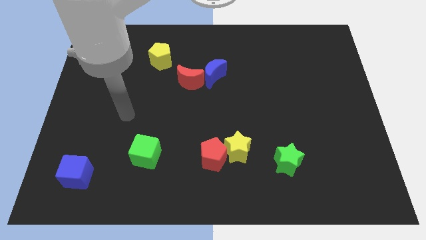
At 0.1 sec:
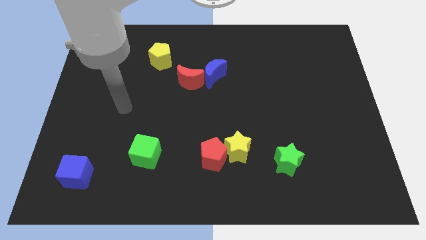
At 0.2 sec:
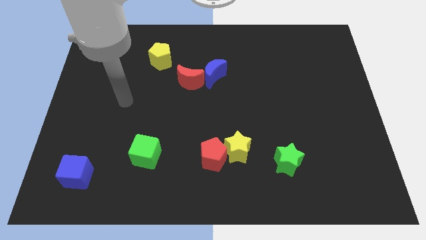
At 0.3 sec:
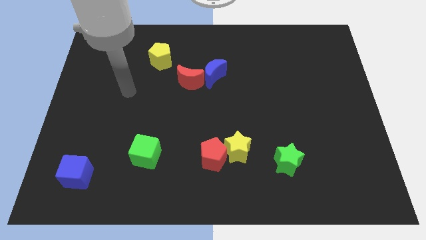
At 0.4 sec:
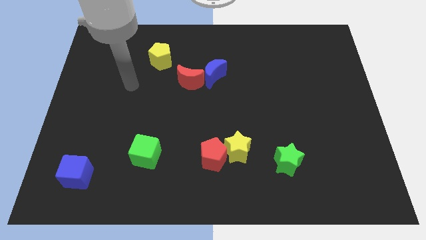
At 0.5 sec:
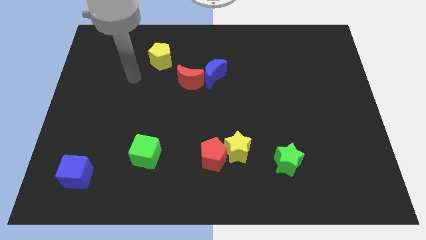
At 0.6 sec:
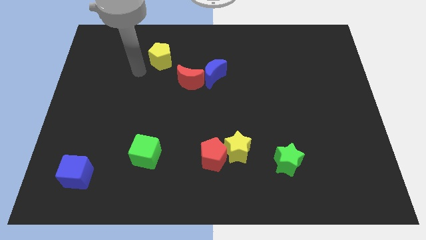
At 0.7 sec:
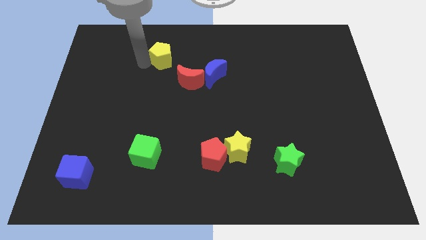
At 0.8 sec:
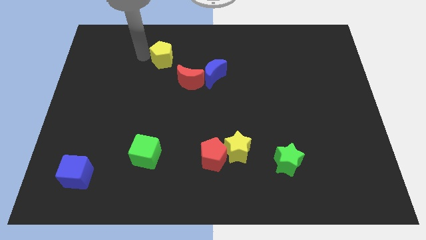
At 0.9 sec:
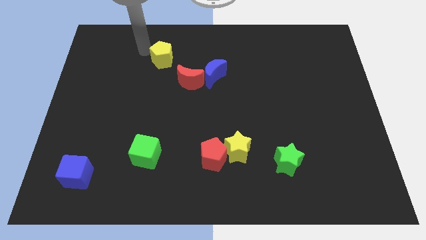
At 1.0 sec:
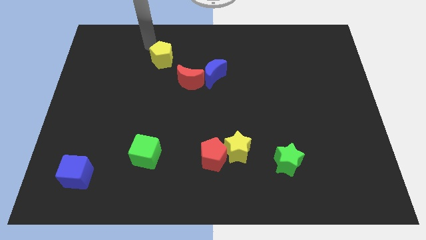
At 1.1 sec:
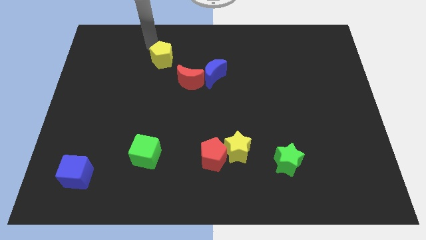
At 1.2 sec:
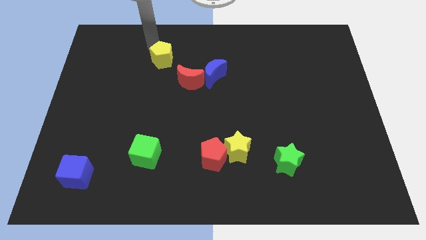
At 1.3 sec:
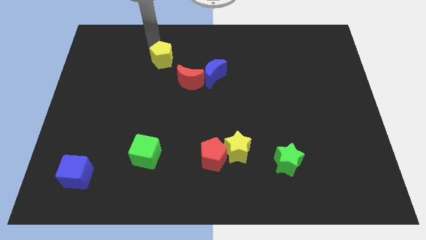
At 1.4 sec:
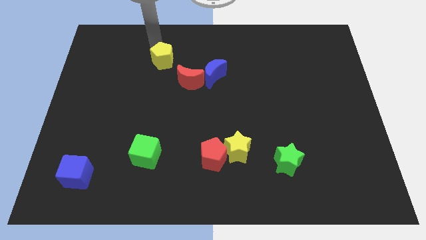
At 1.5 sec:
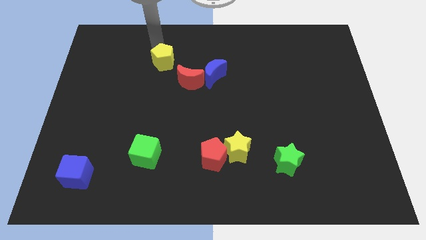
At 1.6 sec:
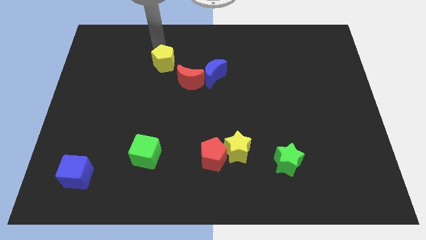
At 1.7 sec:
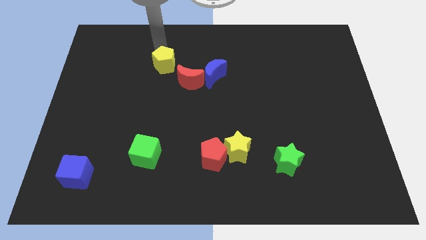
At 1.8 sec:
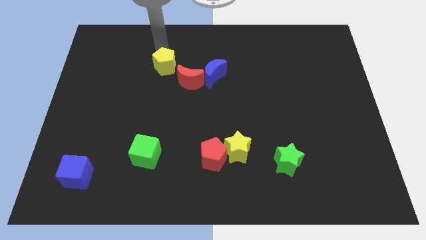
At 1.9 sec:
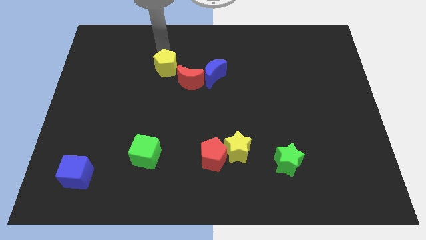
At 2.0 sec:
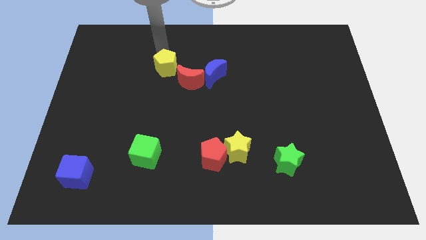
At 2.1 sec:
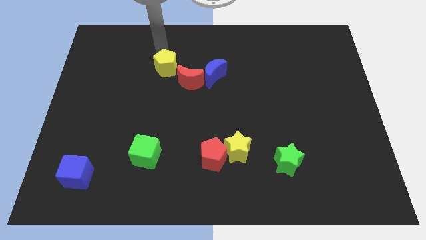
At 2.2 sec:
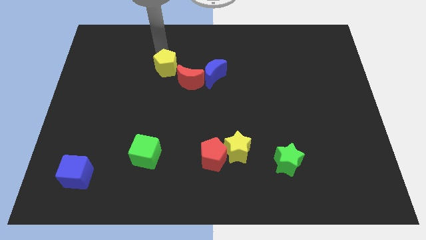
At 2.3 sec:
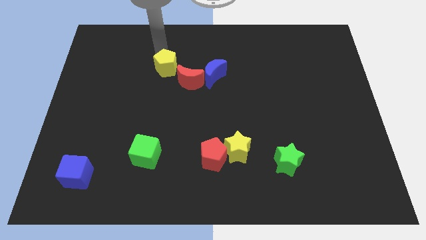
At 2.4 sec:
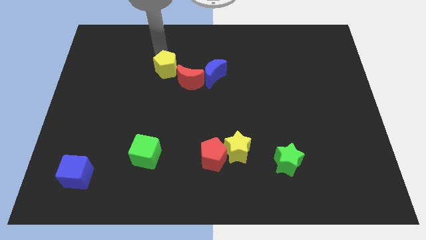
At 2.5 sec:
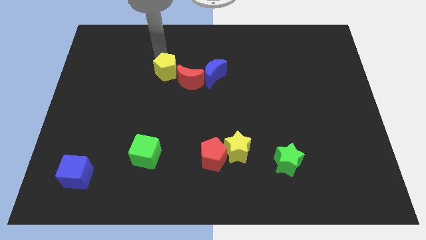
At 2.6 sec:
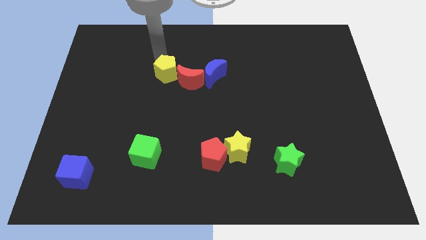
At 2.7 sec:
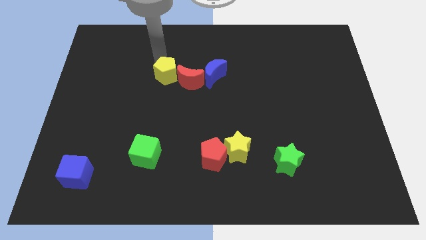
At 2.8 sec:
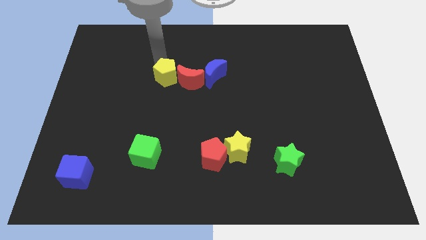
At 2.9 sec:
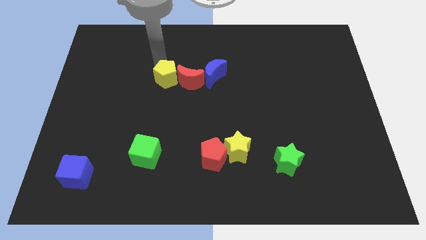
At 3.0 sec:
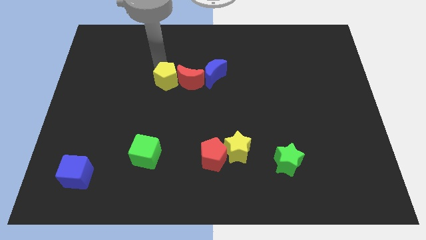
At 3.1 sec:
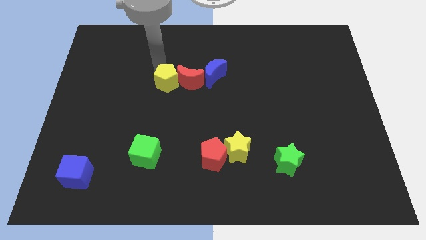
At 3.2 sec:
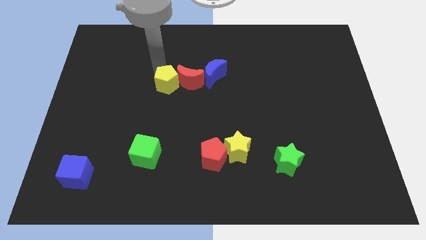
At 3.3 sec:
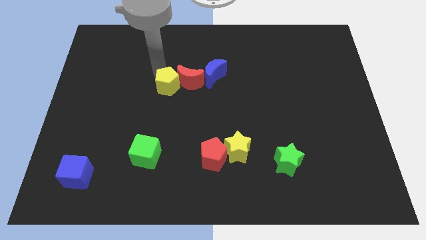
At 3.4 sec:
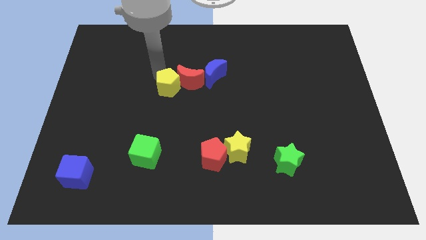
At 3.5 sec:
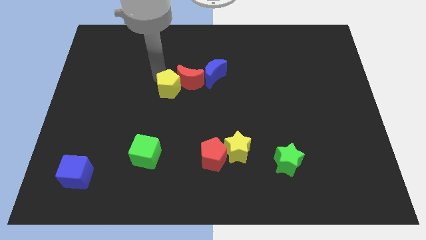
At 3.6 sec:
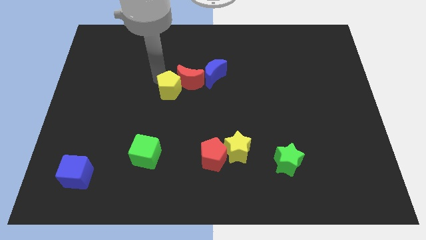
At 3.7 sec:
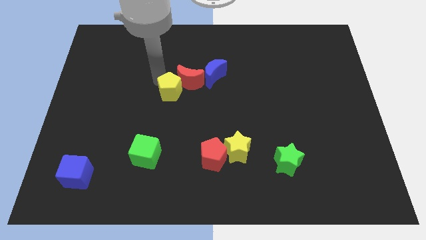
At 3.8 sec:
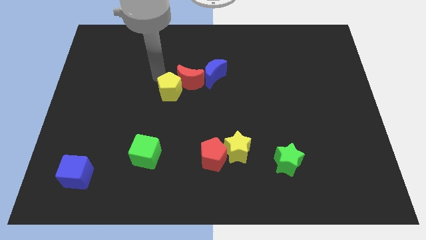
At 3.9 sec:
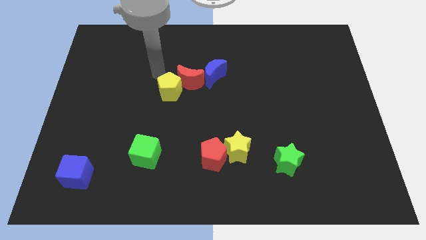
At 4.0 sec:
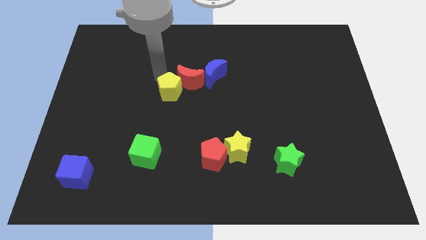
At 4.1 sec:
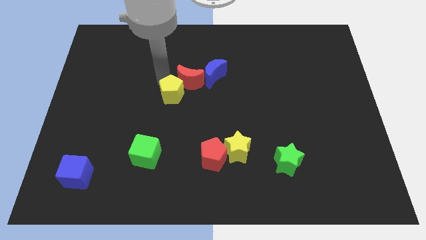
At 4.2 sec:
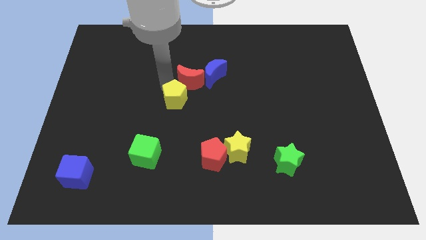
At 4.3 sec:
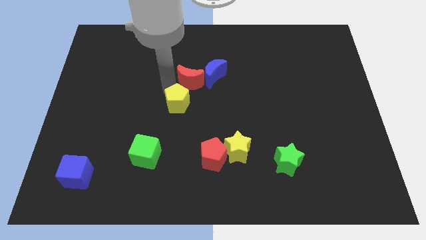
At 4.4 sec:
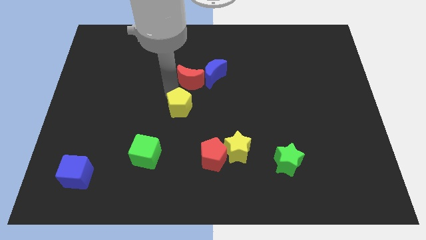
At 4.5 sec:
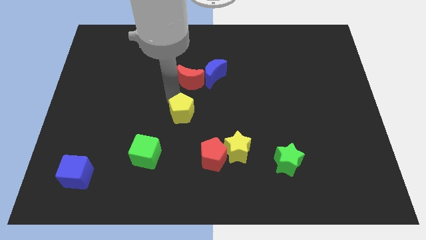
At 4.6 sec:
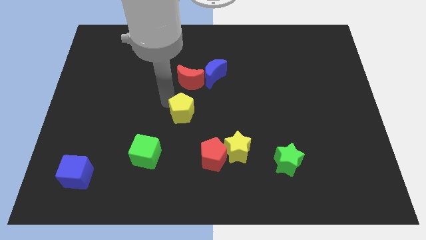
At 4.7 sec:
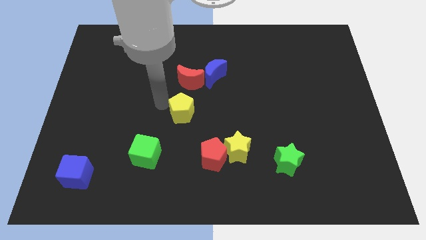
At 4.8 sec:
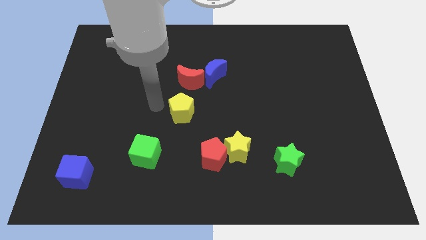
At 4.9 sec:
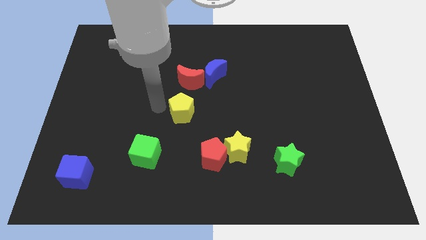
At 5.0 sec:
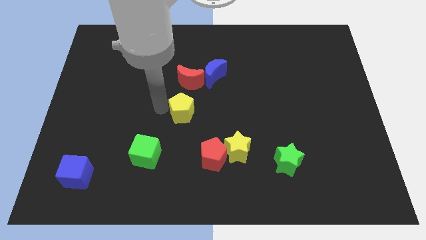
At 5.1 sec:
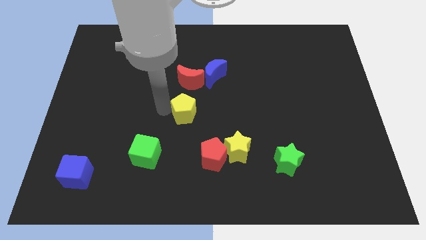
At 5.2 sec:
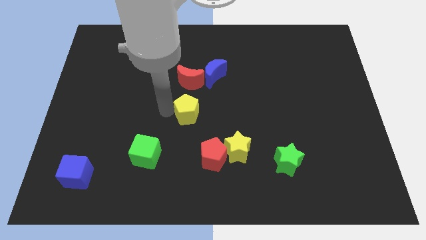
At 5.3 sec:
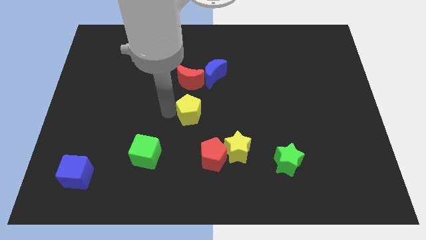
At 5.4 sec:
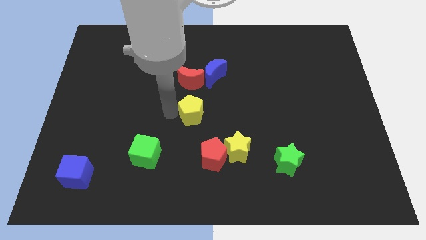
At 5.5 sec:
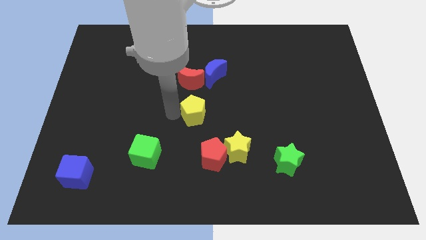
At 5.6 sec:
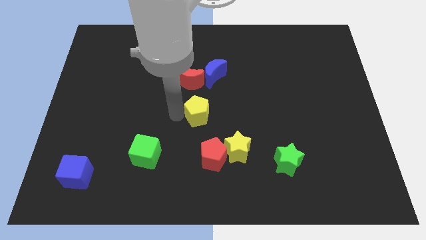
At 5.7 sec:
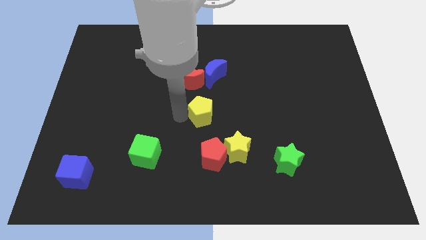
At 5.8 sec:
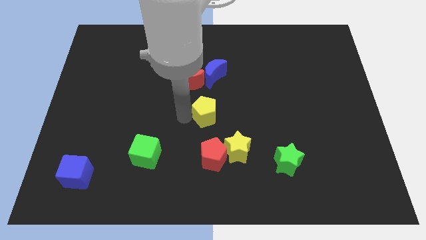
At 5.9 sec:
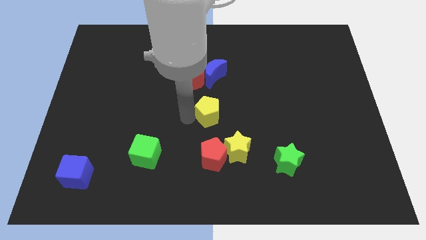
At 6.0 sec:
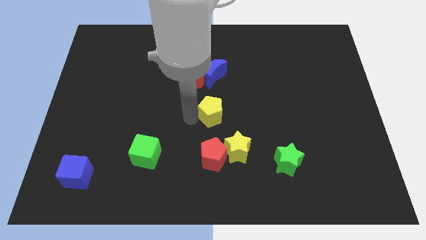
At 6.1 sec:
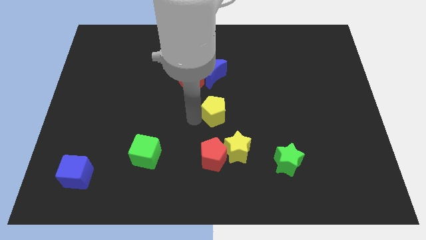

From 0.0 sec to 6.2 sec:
put the yellow pentagon to the top side of the yellow star

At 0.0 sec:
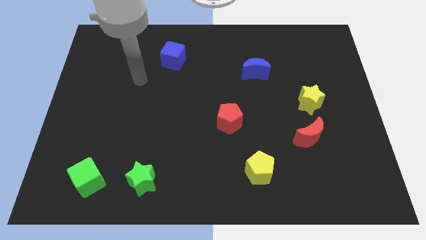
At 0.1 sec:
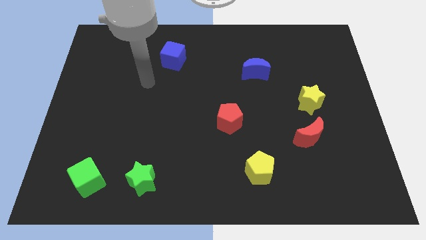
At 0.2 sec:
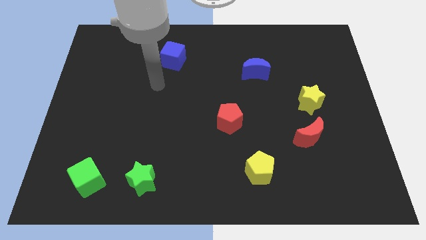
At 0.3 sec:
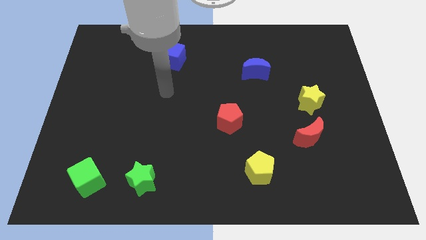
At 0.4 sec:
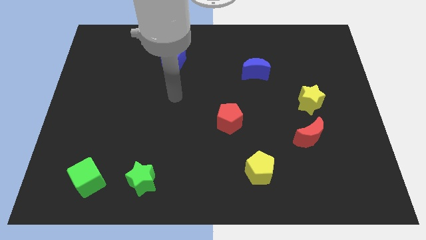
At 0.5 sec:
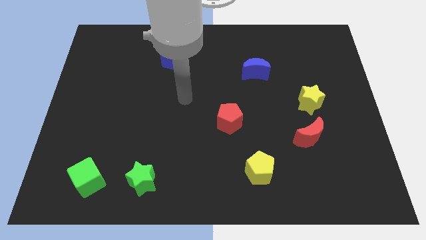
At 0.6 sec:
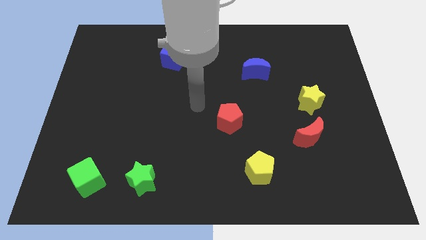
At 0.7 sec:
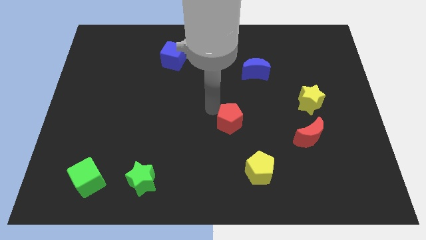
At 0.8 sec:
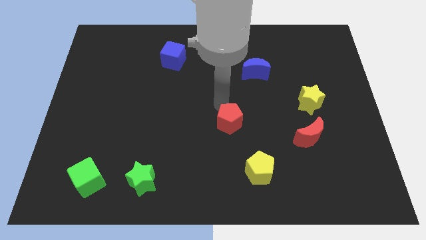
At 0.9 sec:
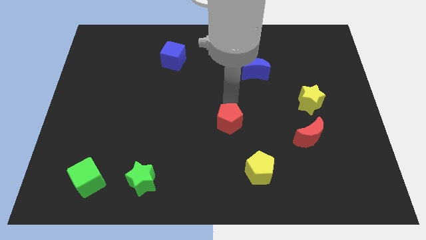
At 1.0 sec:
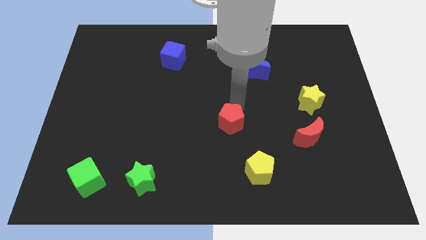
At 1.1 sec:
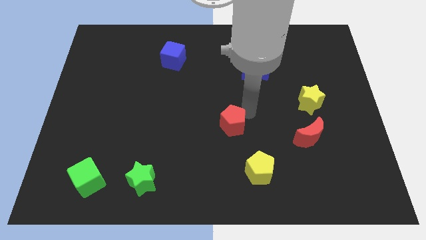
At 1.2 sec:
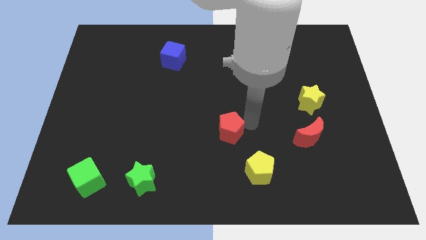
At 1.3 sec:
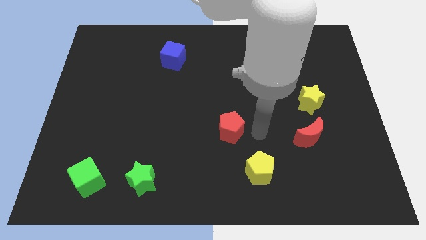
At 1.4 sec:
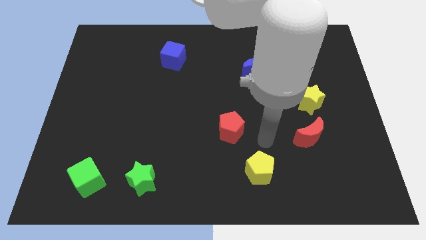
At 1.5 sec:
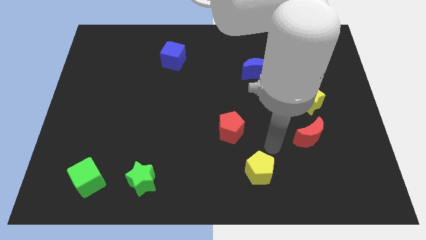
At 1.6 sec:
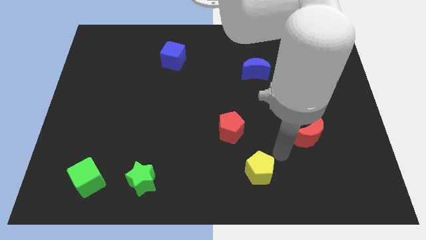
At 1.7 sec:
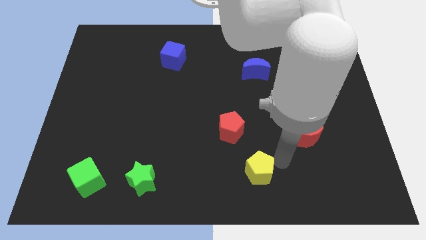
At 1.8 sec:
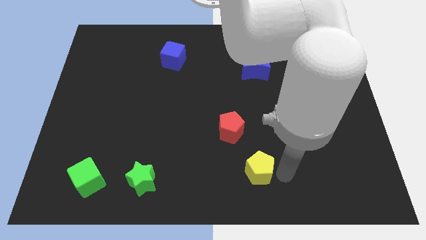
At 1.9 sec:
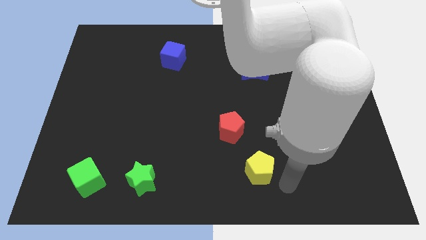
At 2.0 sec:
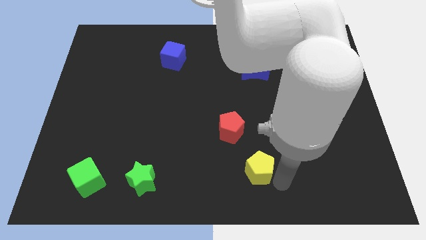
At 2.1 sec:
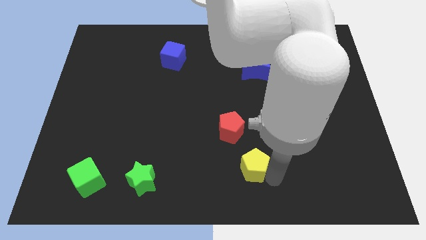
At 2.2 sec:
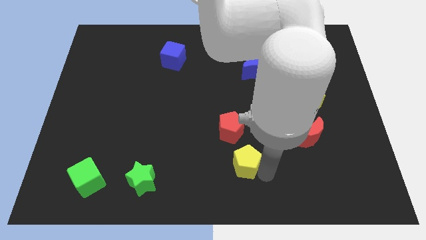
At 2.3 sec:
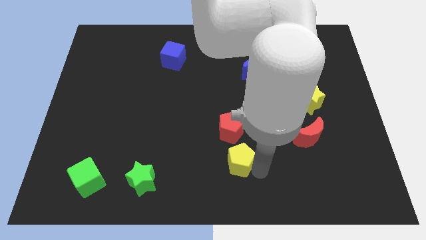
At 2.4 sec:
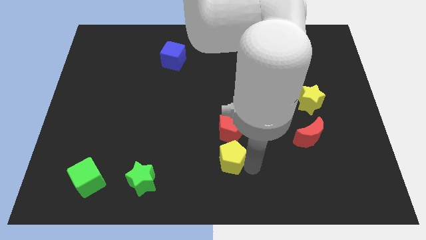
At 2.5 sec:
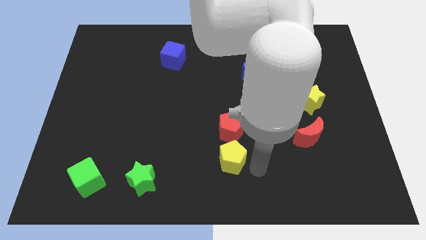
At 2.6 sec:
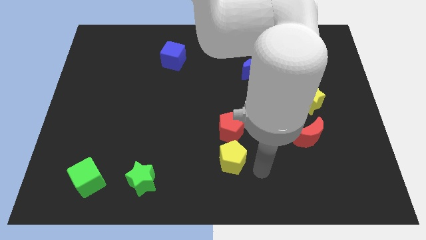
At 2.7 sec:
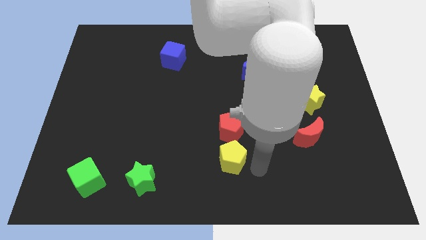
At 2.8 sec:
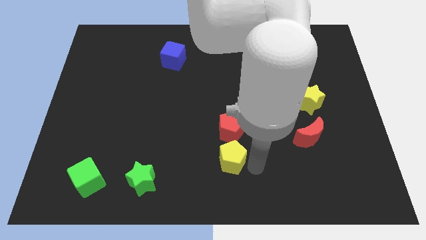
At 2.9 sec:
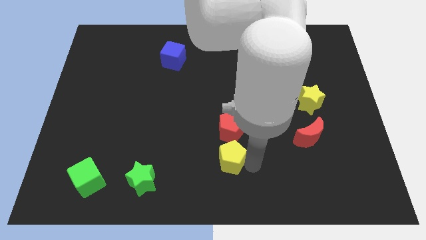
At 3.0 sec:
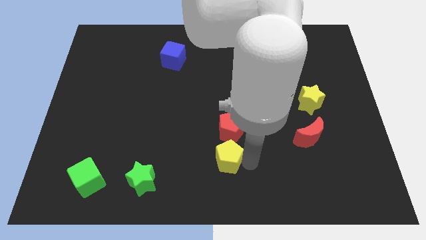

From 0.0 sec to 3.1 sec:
slide the yellow pentagon diagonally down and to the left of the red pentagon
